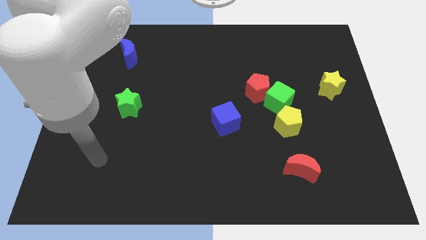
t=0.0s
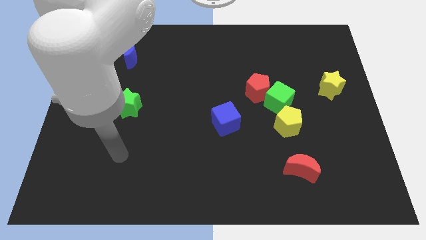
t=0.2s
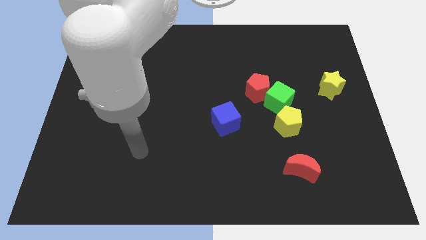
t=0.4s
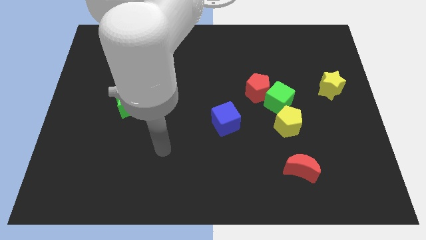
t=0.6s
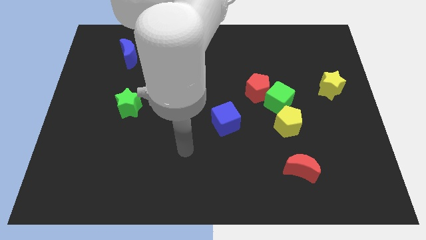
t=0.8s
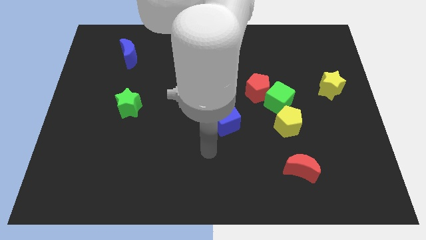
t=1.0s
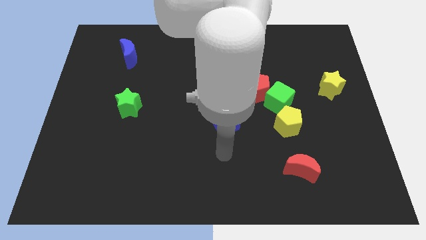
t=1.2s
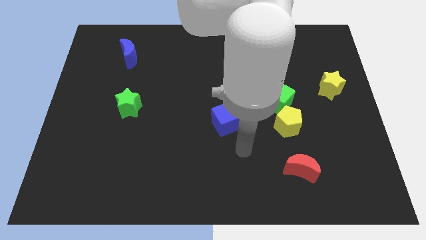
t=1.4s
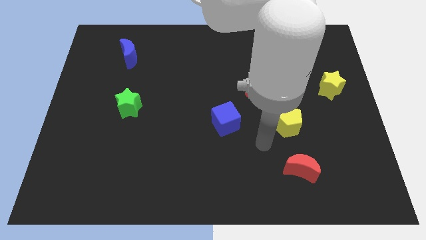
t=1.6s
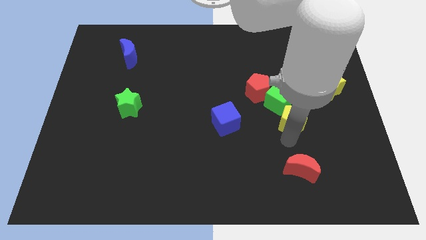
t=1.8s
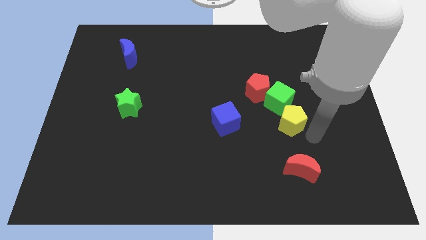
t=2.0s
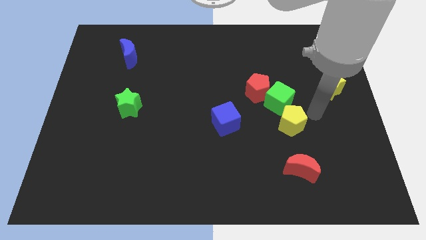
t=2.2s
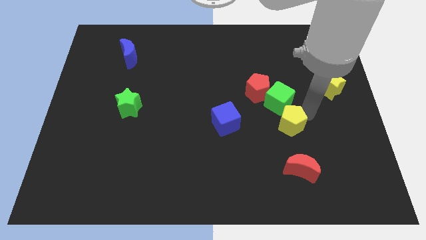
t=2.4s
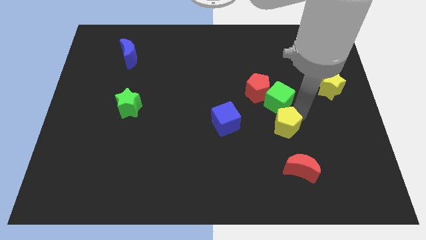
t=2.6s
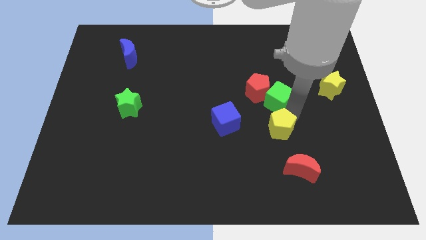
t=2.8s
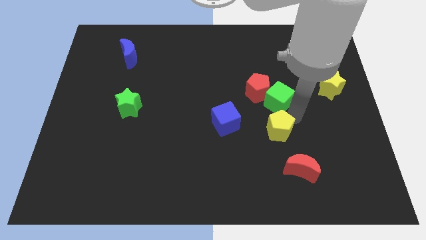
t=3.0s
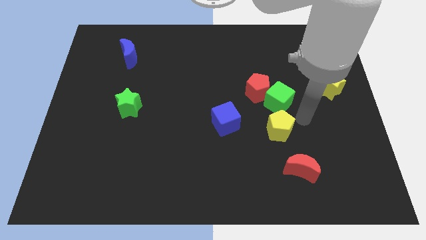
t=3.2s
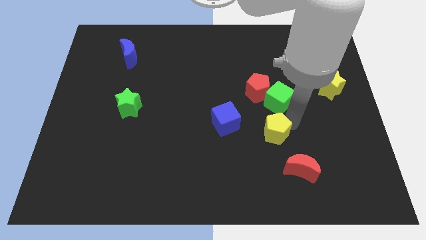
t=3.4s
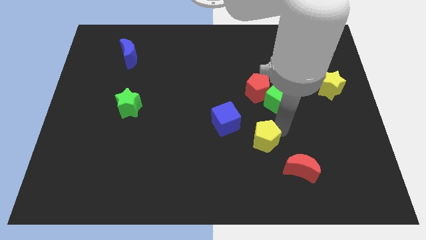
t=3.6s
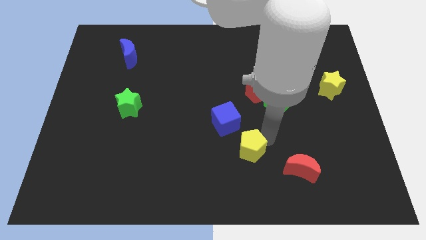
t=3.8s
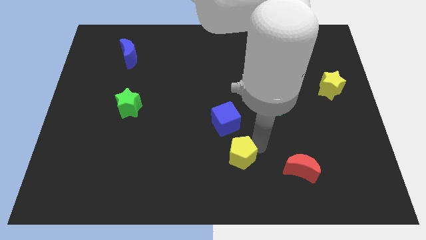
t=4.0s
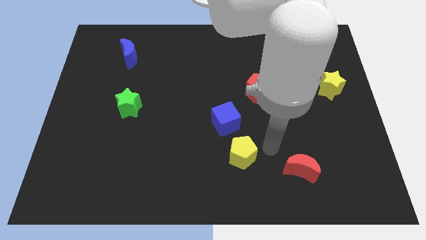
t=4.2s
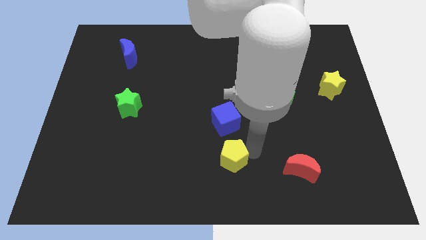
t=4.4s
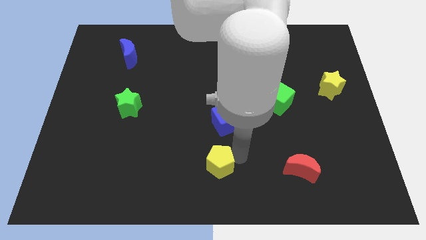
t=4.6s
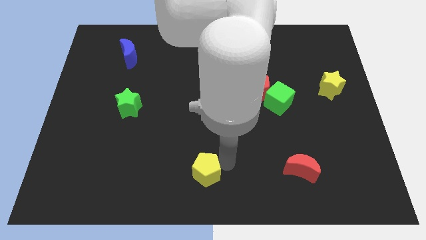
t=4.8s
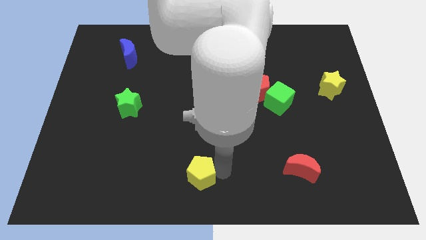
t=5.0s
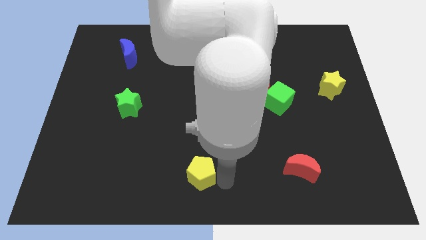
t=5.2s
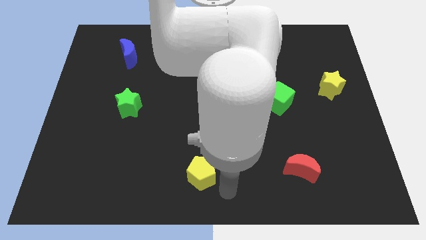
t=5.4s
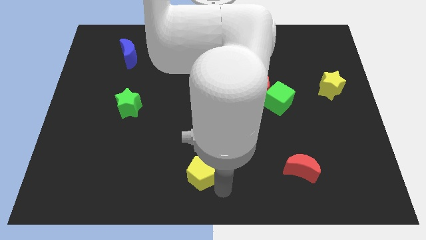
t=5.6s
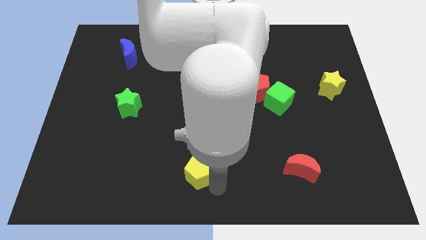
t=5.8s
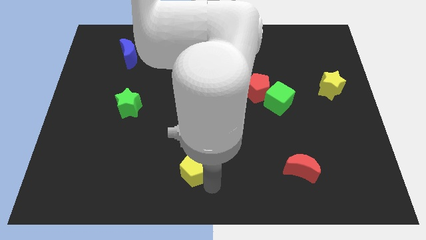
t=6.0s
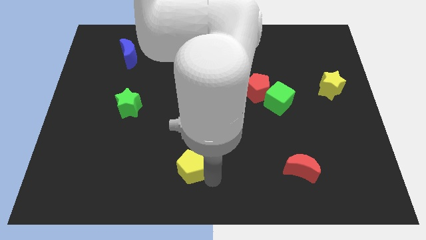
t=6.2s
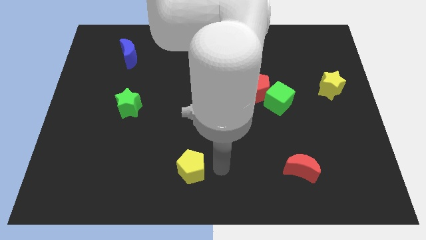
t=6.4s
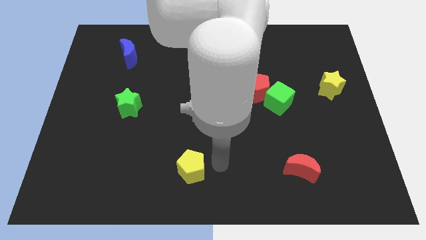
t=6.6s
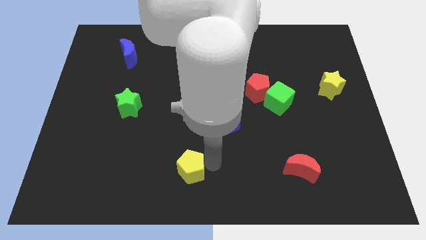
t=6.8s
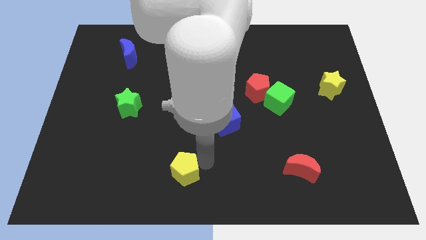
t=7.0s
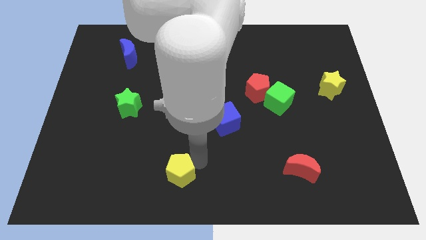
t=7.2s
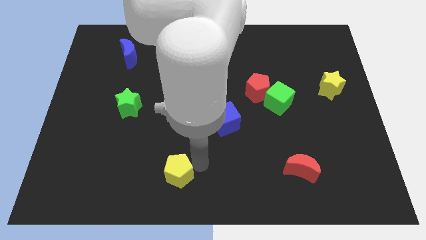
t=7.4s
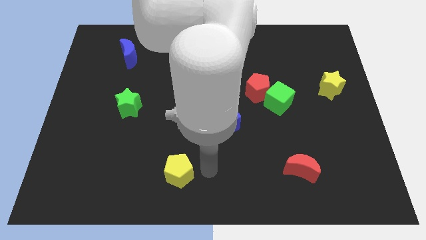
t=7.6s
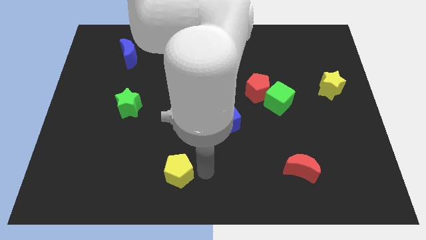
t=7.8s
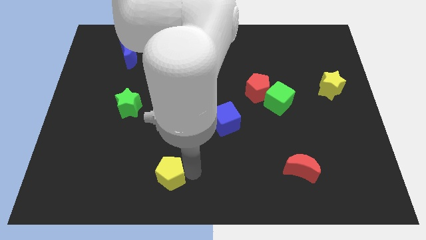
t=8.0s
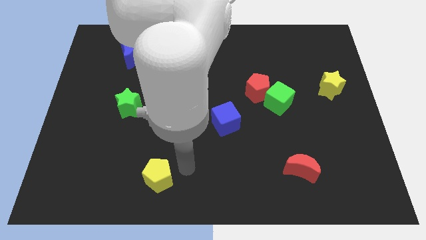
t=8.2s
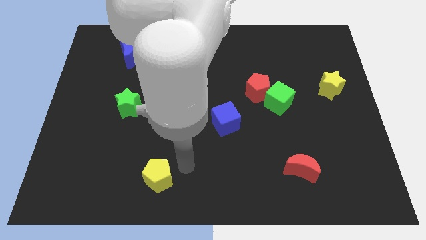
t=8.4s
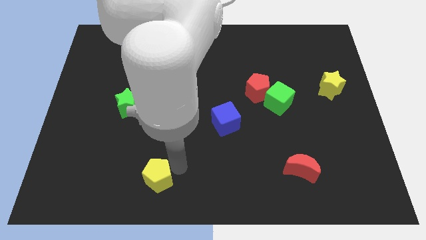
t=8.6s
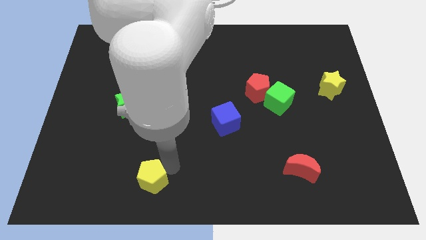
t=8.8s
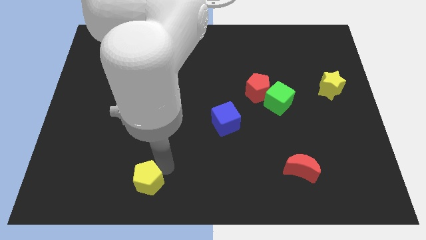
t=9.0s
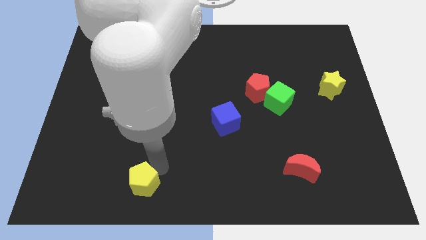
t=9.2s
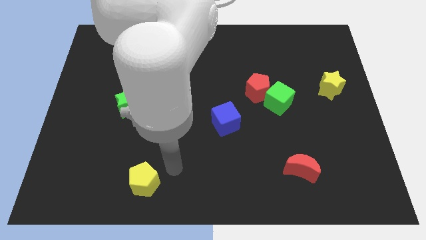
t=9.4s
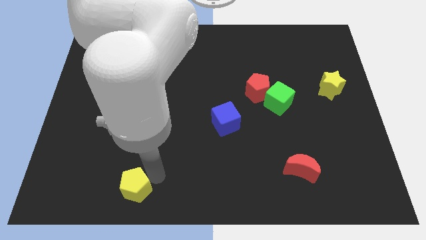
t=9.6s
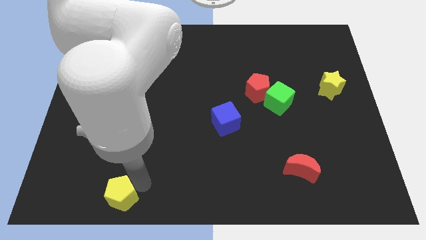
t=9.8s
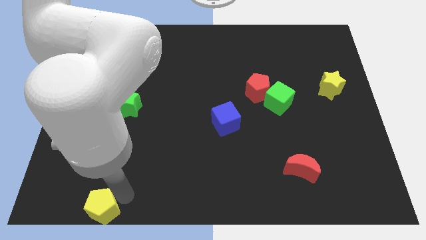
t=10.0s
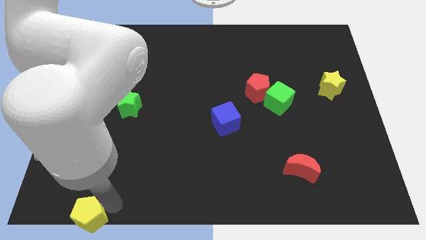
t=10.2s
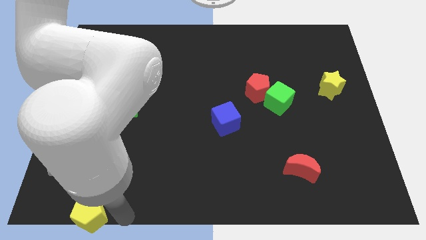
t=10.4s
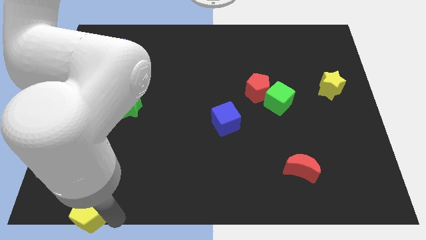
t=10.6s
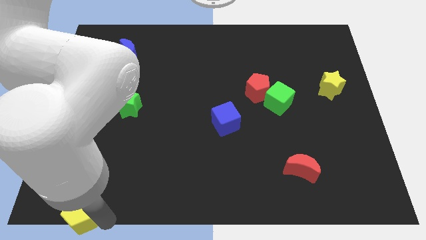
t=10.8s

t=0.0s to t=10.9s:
move the yellow pentagon to the bottom left of the board

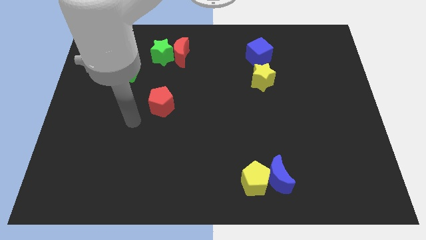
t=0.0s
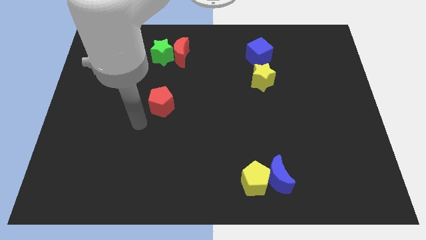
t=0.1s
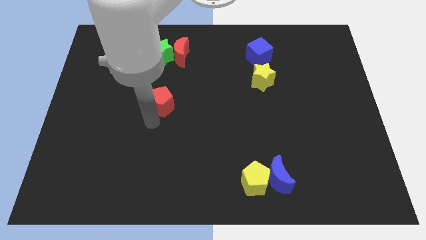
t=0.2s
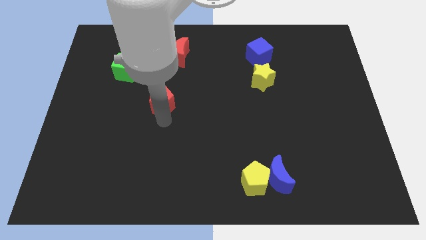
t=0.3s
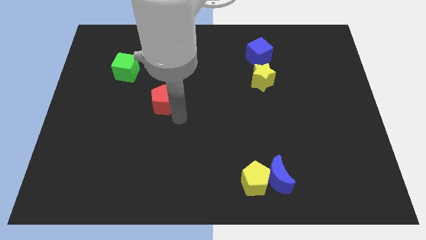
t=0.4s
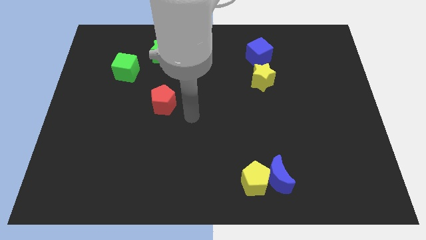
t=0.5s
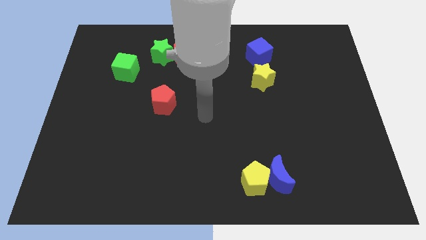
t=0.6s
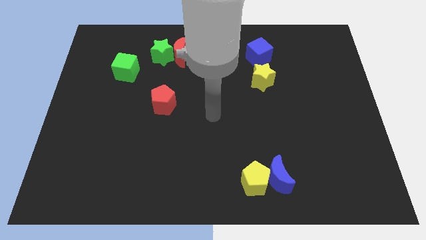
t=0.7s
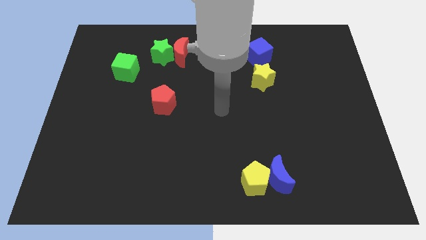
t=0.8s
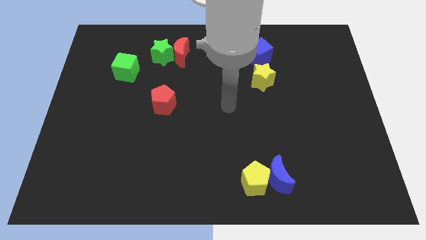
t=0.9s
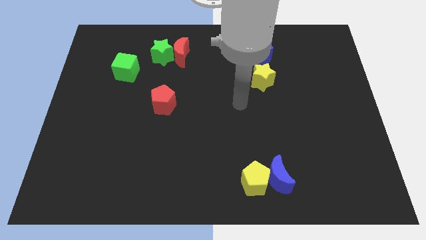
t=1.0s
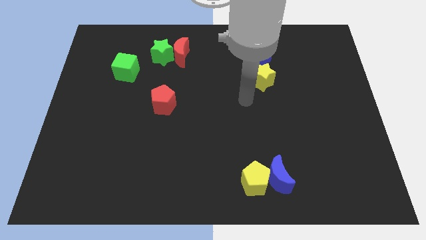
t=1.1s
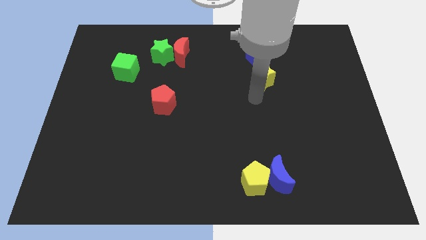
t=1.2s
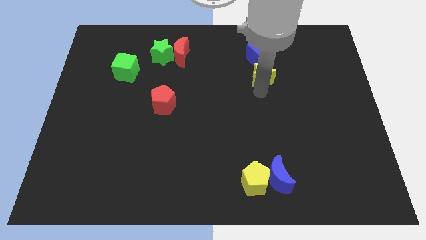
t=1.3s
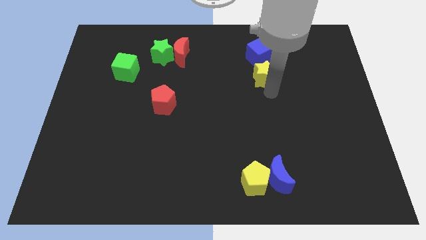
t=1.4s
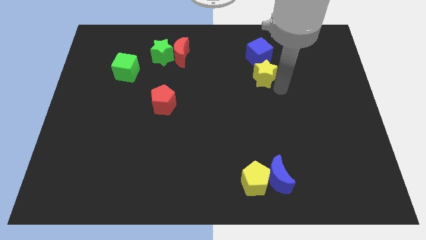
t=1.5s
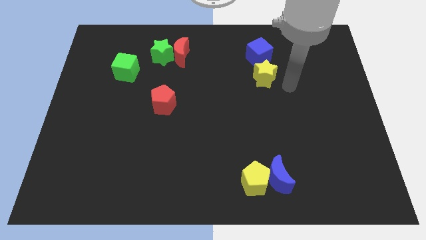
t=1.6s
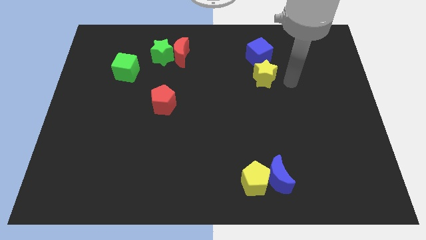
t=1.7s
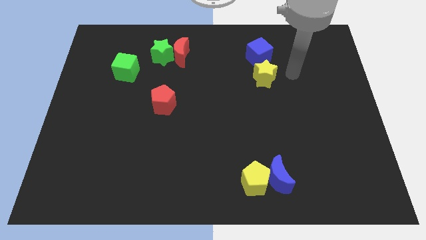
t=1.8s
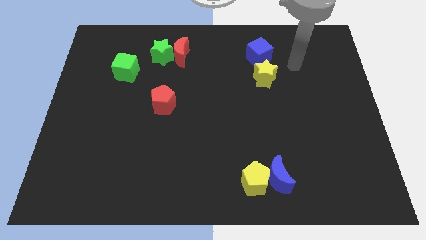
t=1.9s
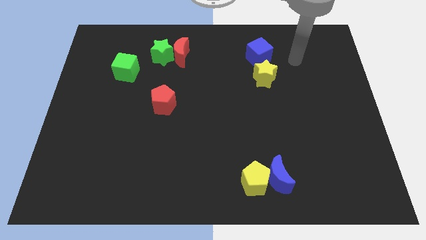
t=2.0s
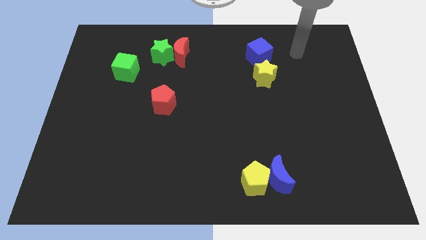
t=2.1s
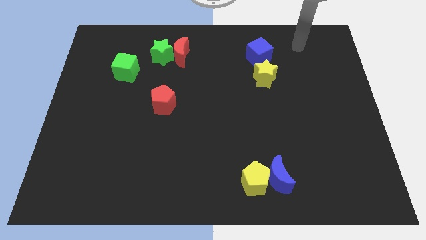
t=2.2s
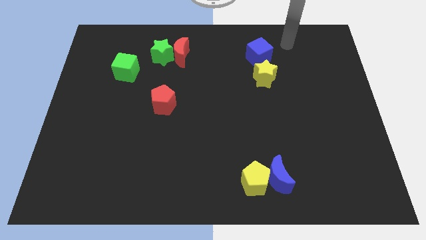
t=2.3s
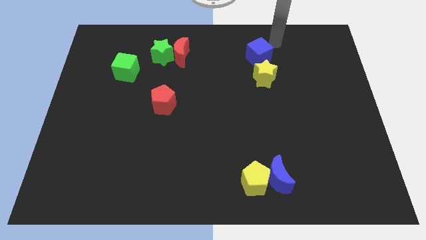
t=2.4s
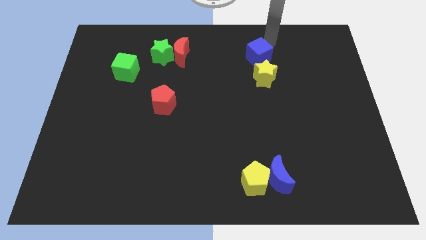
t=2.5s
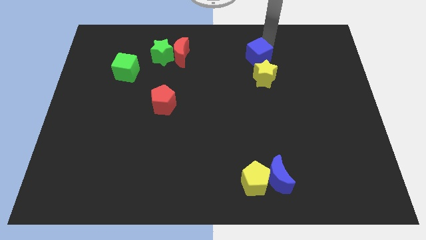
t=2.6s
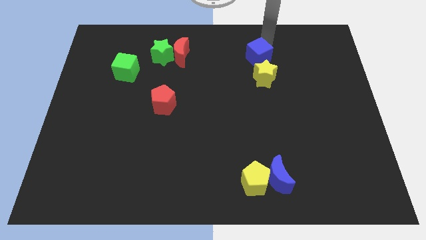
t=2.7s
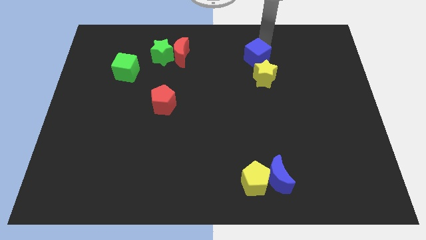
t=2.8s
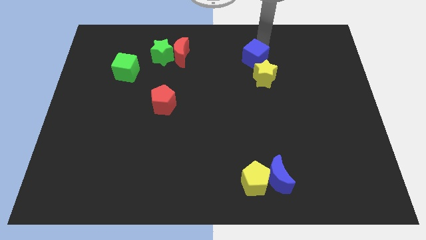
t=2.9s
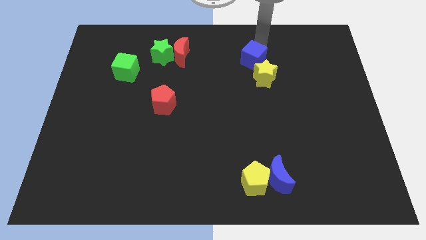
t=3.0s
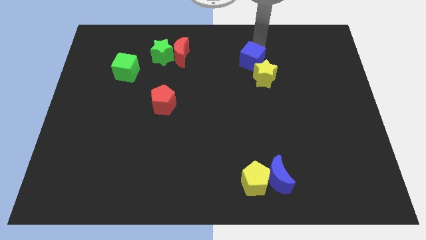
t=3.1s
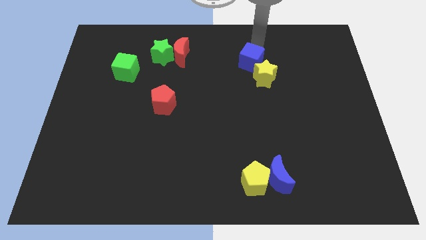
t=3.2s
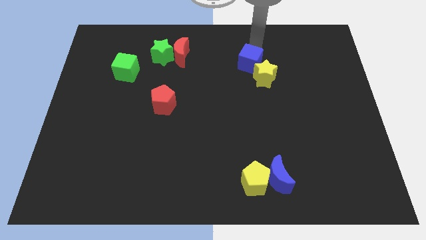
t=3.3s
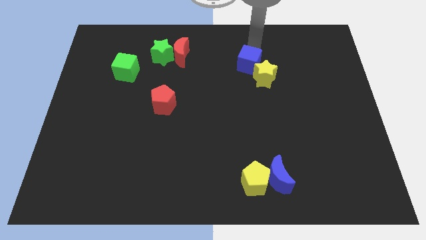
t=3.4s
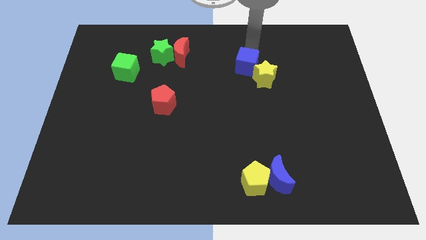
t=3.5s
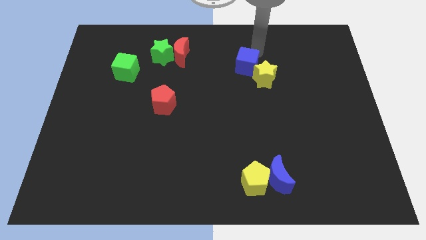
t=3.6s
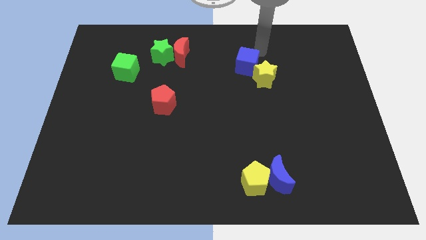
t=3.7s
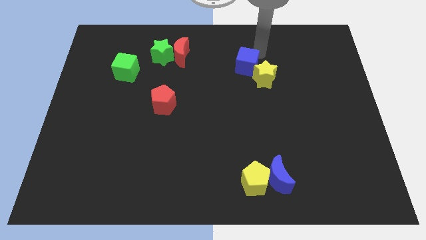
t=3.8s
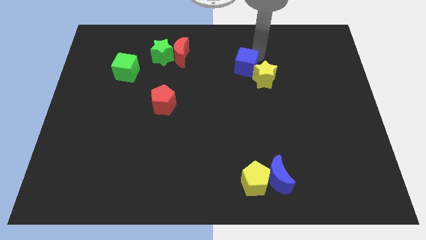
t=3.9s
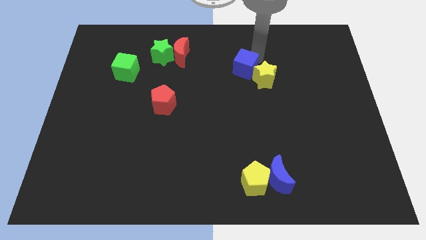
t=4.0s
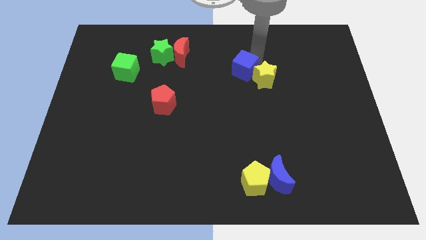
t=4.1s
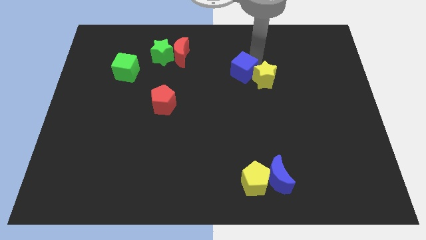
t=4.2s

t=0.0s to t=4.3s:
put the blue cube to the middle
